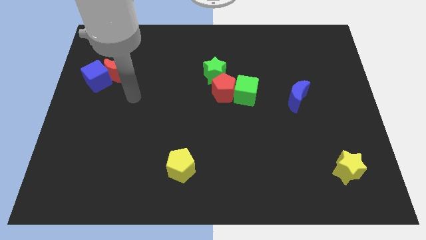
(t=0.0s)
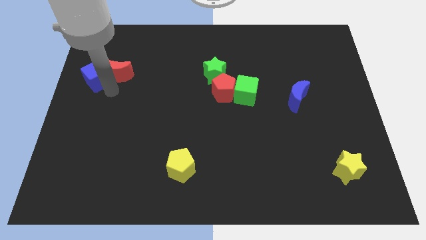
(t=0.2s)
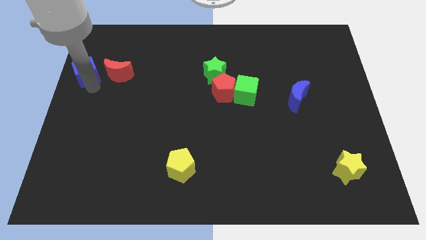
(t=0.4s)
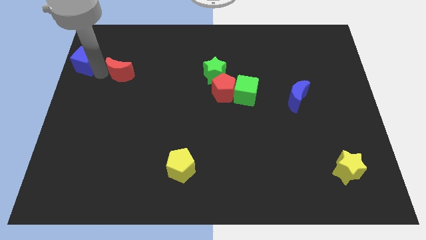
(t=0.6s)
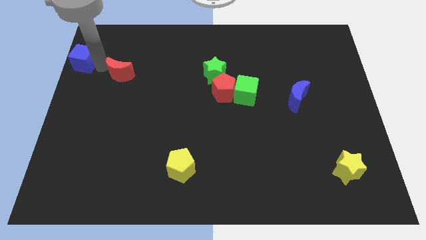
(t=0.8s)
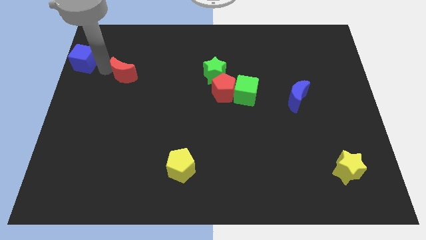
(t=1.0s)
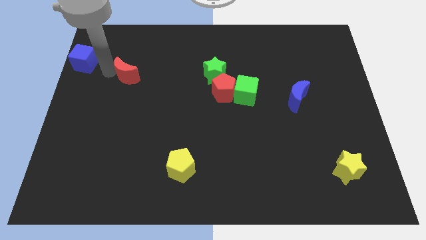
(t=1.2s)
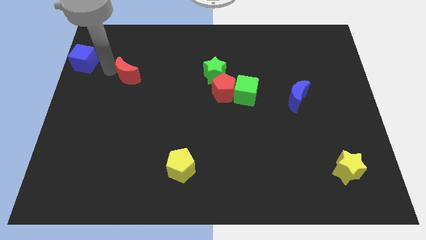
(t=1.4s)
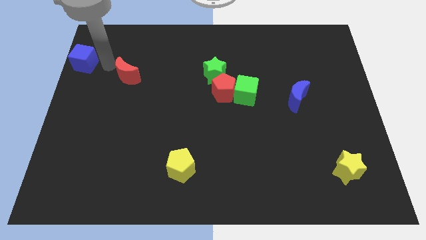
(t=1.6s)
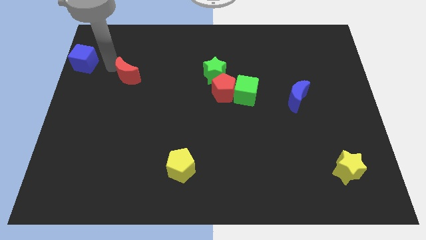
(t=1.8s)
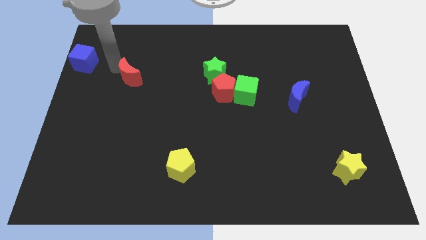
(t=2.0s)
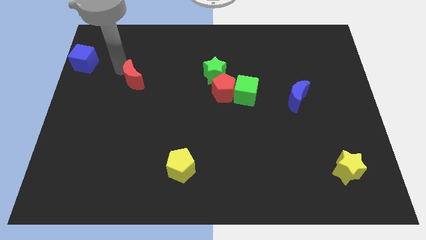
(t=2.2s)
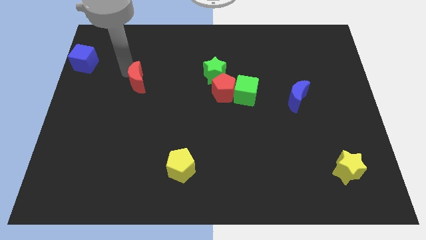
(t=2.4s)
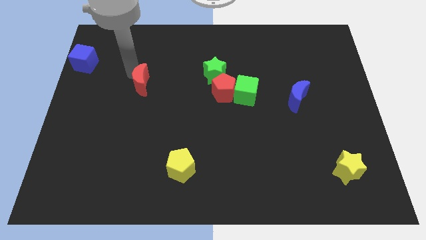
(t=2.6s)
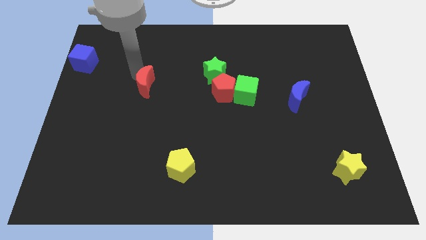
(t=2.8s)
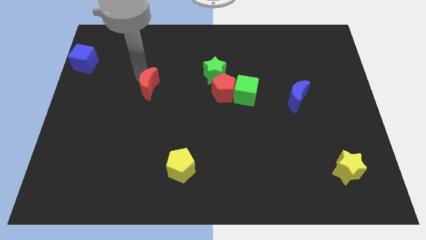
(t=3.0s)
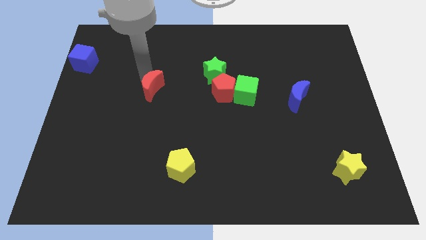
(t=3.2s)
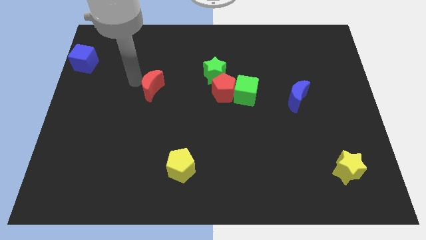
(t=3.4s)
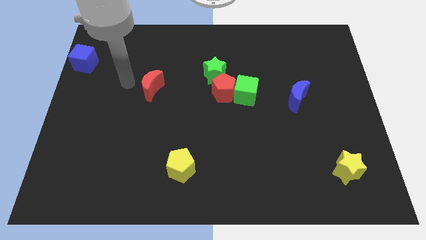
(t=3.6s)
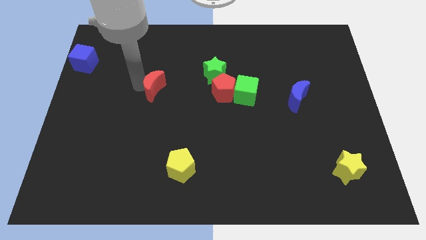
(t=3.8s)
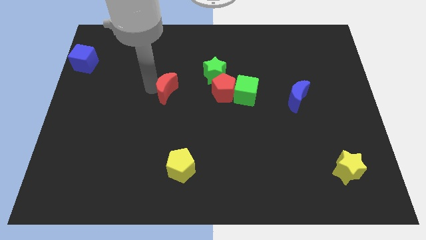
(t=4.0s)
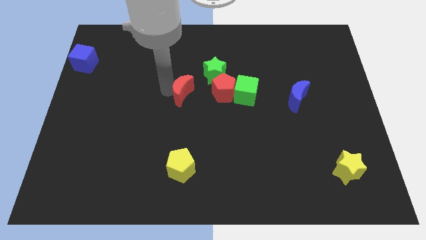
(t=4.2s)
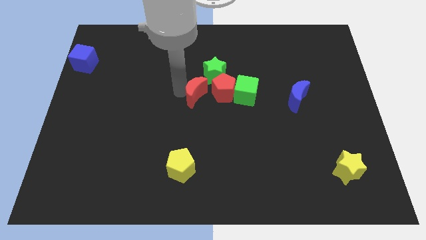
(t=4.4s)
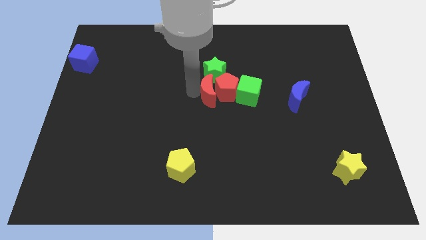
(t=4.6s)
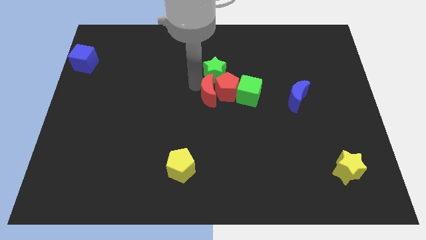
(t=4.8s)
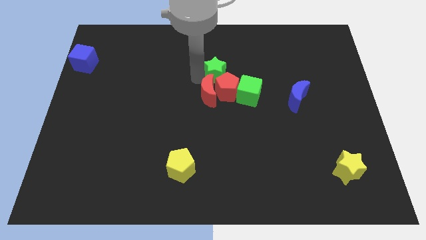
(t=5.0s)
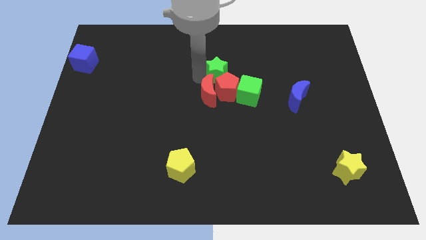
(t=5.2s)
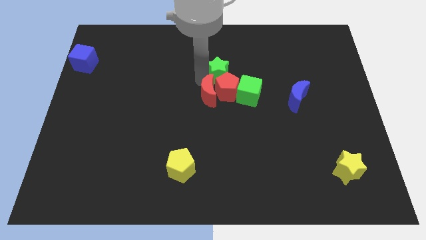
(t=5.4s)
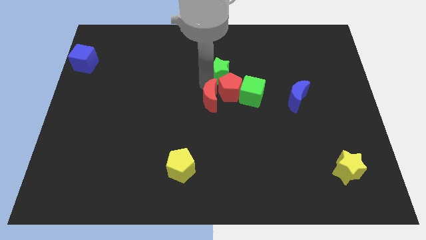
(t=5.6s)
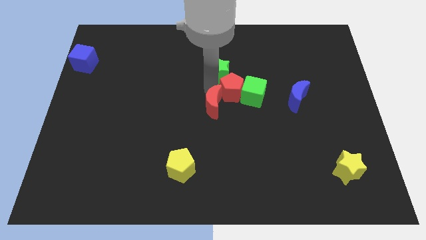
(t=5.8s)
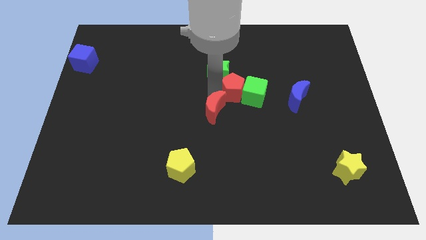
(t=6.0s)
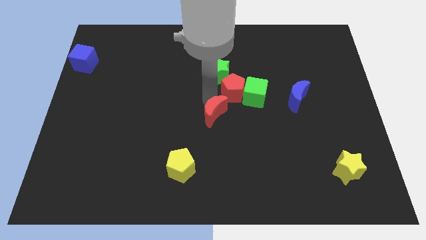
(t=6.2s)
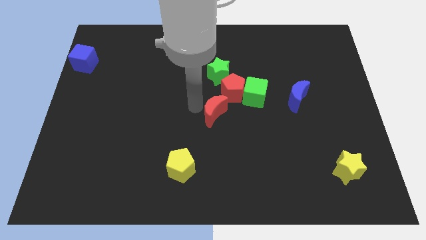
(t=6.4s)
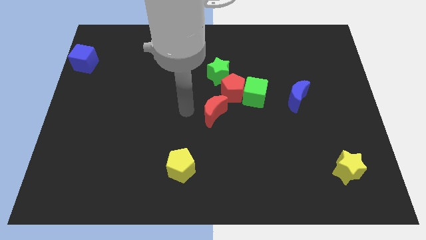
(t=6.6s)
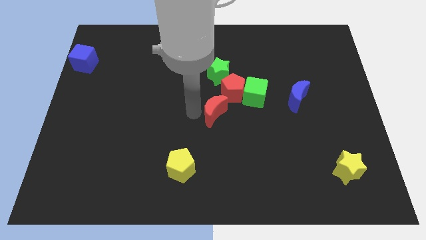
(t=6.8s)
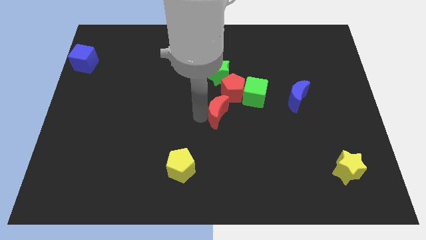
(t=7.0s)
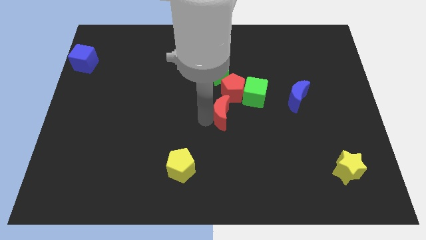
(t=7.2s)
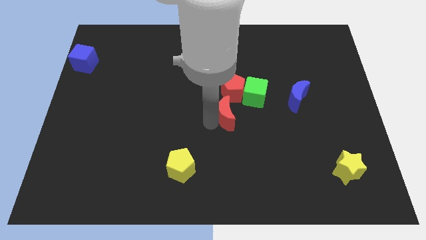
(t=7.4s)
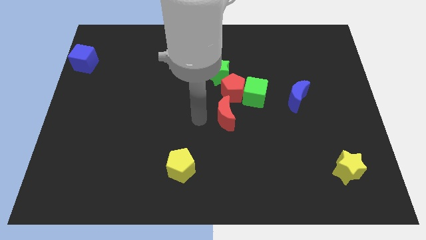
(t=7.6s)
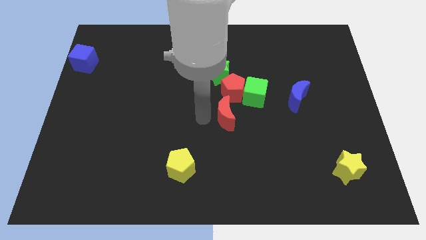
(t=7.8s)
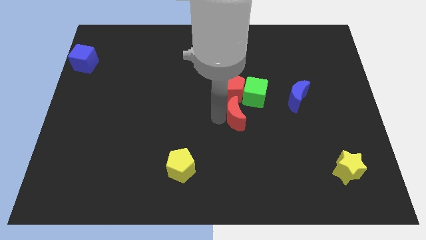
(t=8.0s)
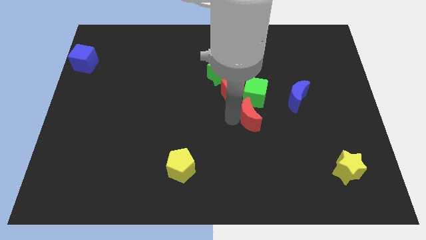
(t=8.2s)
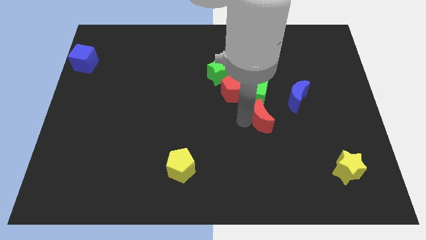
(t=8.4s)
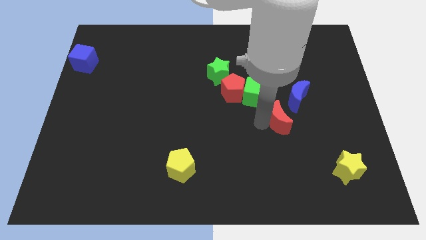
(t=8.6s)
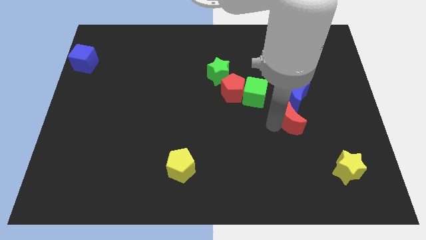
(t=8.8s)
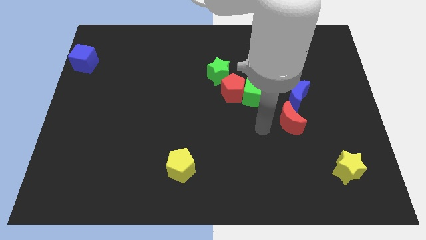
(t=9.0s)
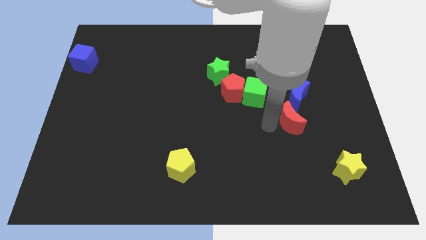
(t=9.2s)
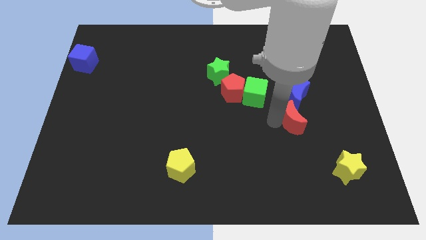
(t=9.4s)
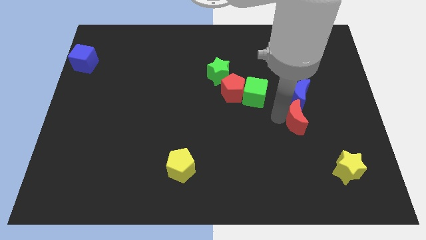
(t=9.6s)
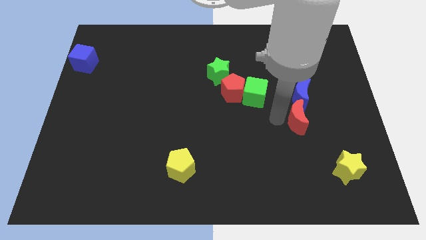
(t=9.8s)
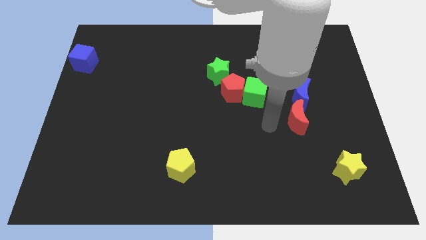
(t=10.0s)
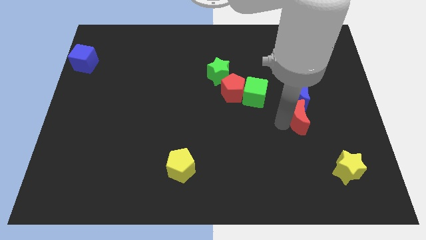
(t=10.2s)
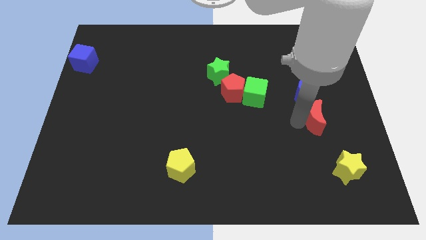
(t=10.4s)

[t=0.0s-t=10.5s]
push the red moon to the bottom right of the blue moon

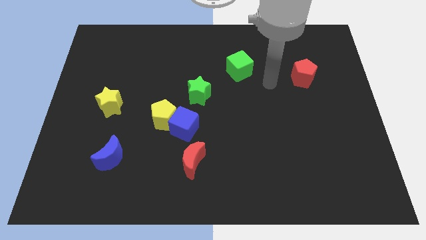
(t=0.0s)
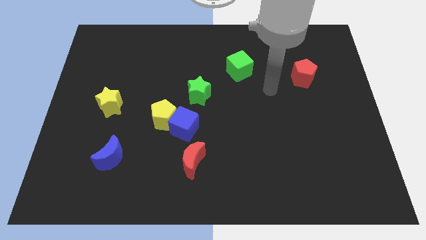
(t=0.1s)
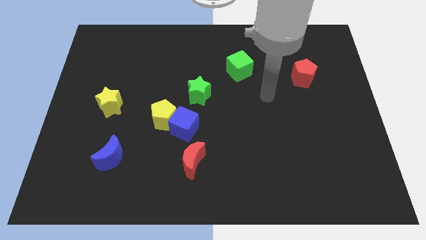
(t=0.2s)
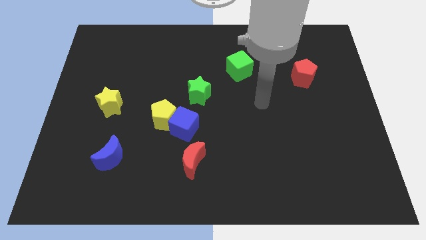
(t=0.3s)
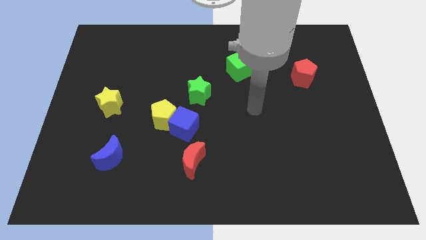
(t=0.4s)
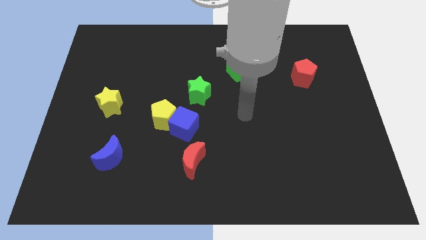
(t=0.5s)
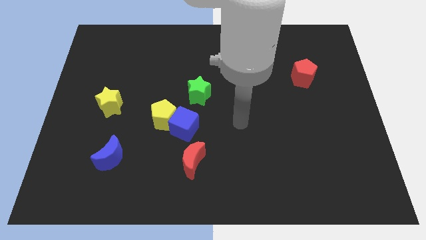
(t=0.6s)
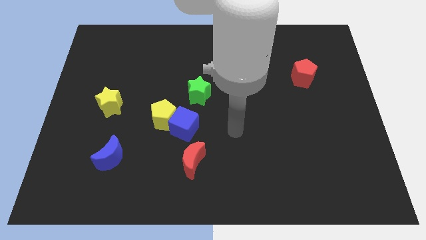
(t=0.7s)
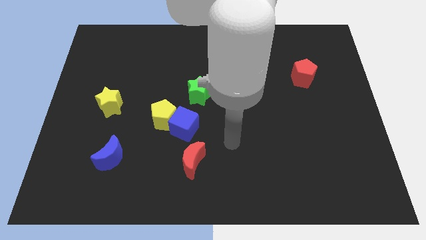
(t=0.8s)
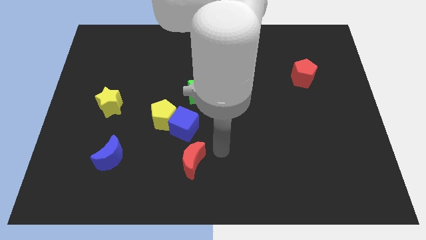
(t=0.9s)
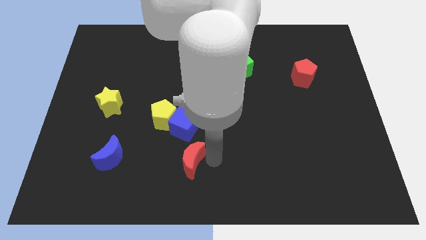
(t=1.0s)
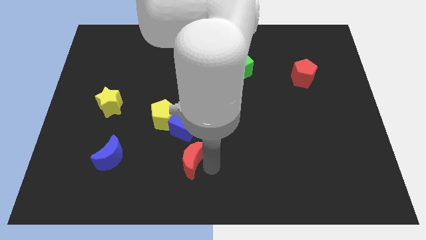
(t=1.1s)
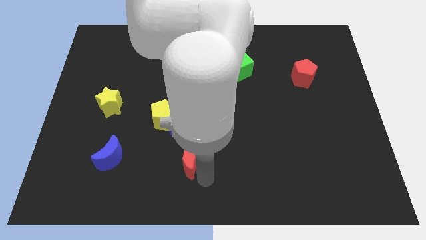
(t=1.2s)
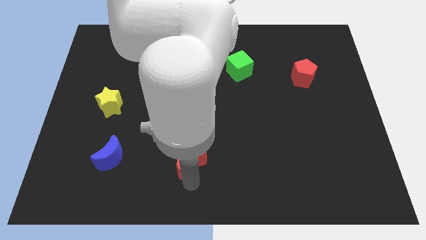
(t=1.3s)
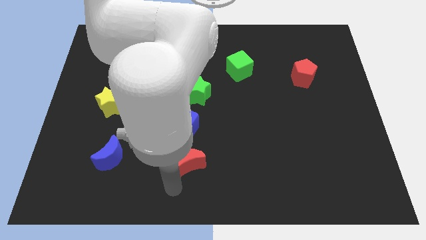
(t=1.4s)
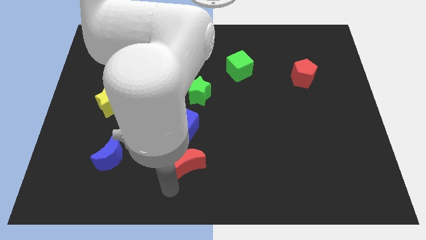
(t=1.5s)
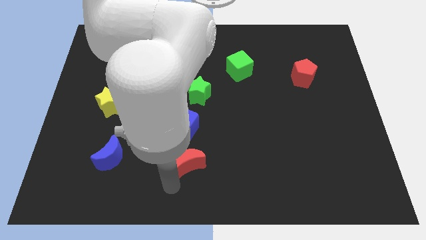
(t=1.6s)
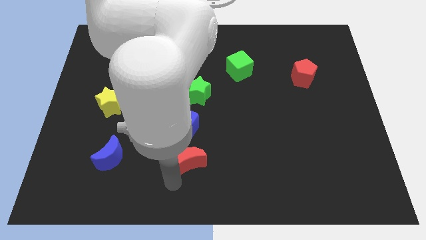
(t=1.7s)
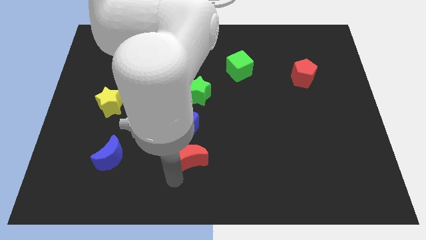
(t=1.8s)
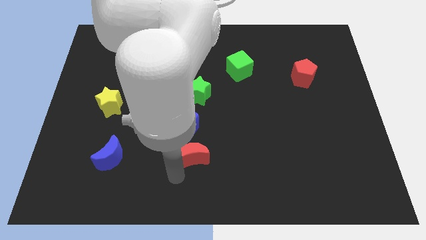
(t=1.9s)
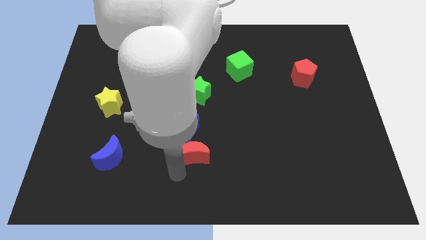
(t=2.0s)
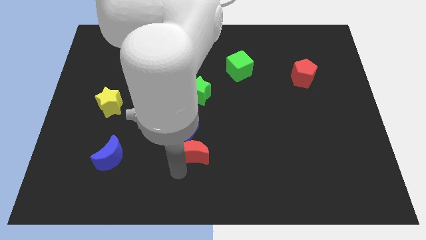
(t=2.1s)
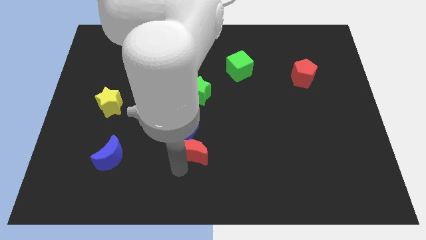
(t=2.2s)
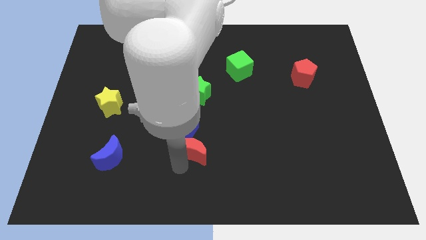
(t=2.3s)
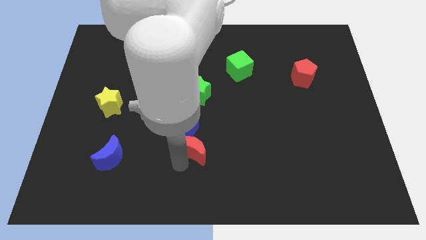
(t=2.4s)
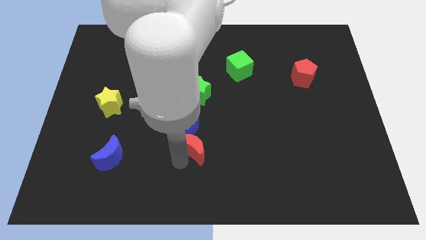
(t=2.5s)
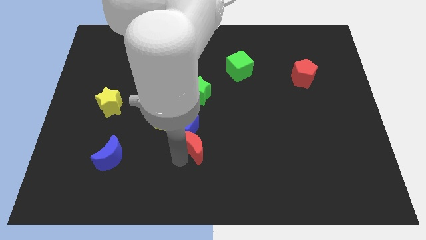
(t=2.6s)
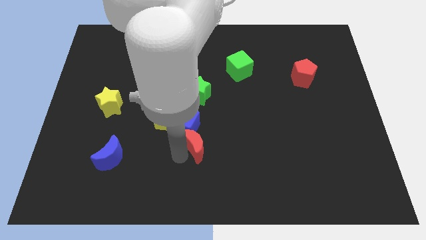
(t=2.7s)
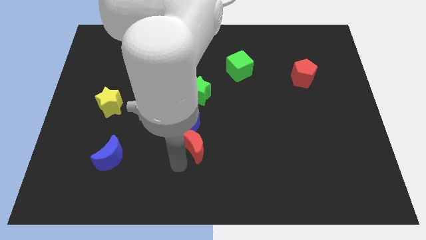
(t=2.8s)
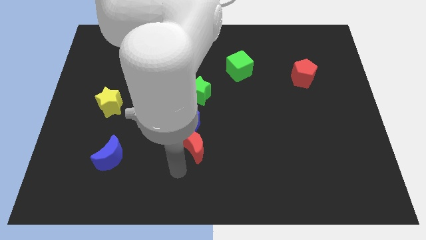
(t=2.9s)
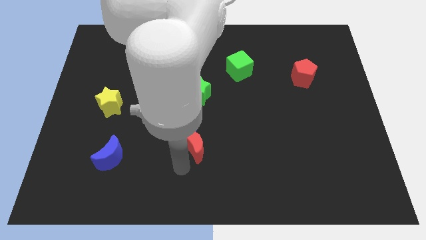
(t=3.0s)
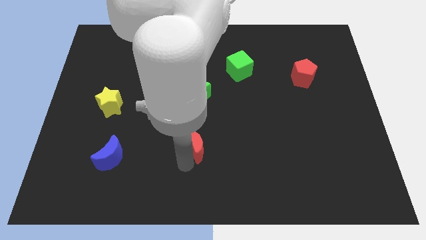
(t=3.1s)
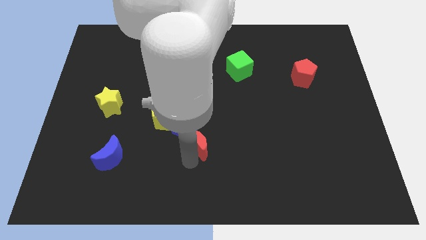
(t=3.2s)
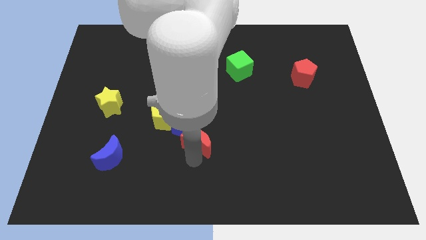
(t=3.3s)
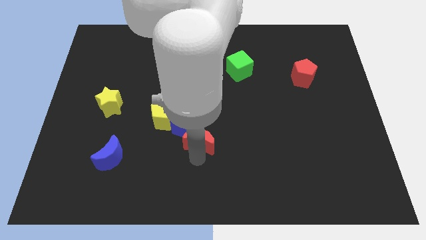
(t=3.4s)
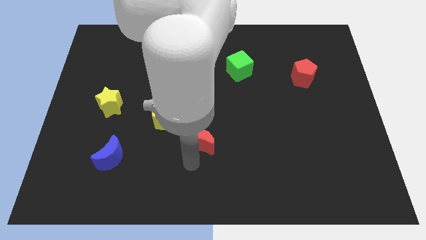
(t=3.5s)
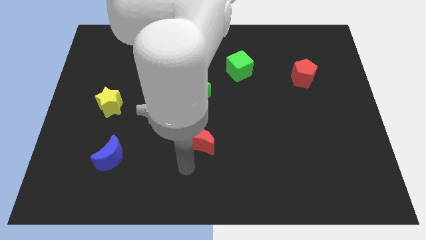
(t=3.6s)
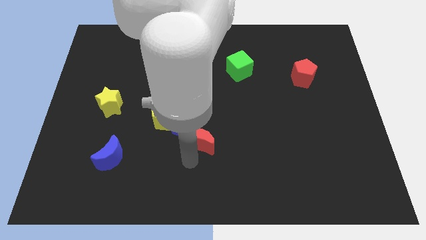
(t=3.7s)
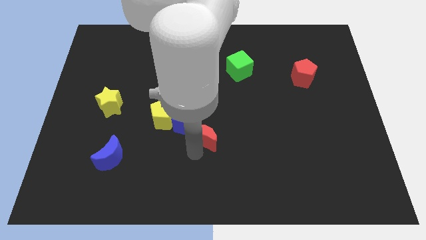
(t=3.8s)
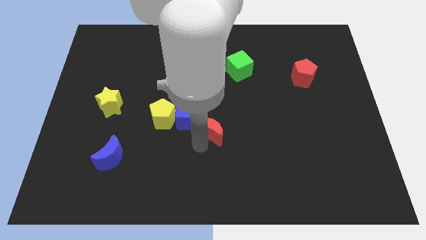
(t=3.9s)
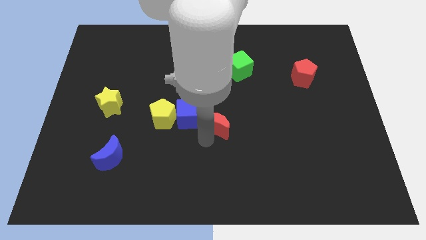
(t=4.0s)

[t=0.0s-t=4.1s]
slide the red moon diagonally down and to the right of the green star
